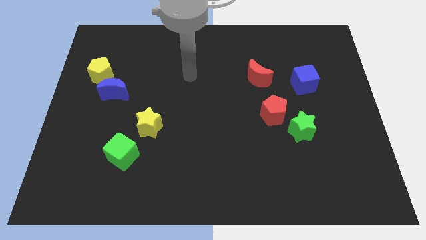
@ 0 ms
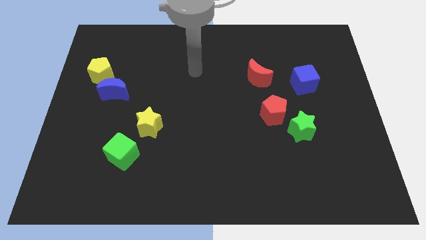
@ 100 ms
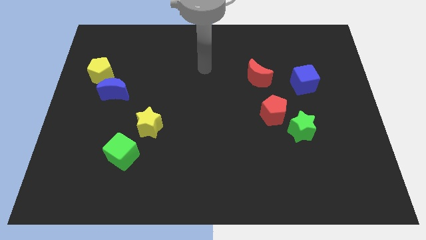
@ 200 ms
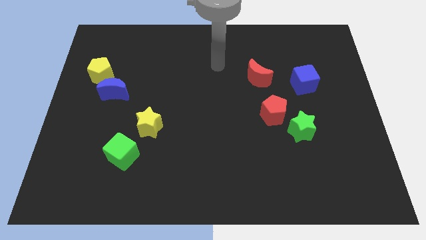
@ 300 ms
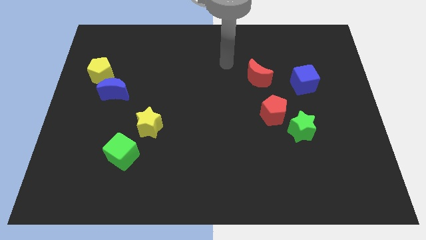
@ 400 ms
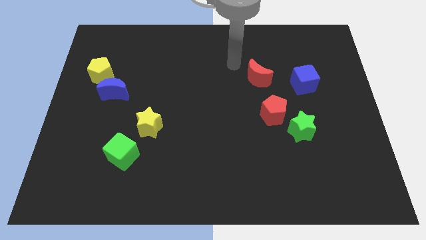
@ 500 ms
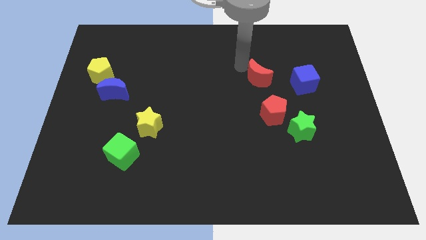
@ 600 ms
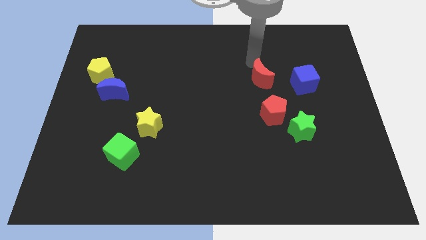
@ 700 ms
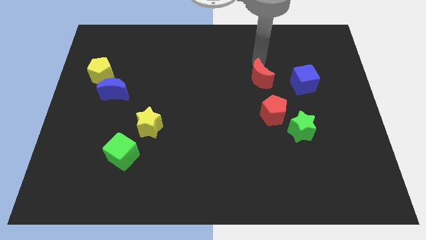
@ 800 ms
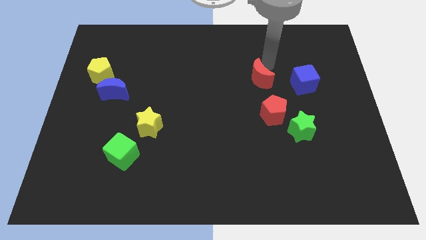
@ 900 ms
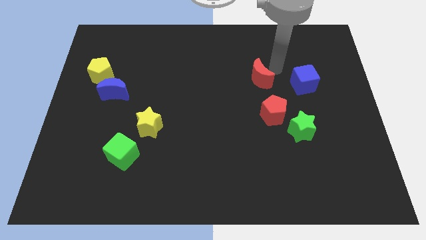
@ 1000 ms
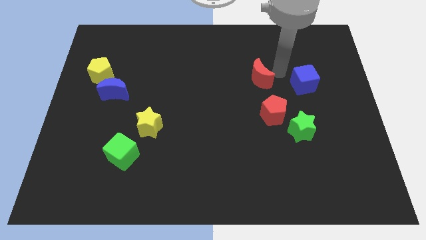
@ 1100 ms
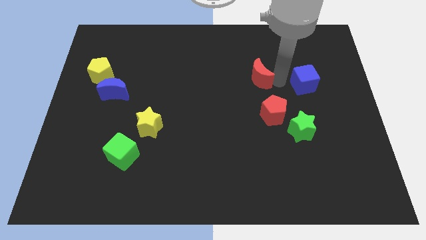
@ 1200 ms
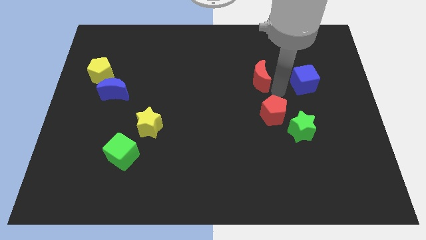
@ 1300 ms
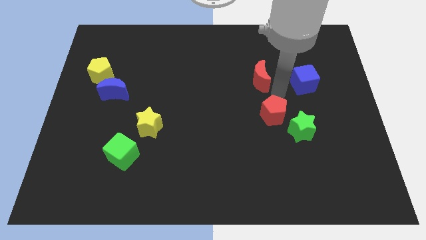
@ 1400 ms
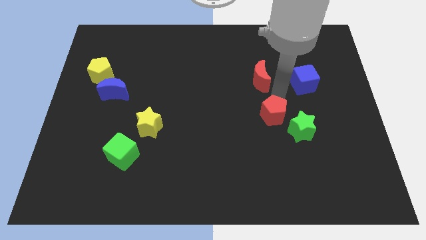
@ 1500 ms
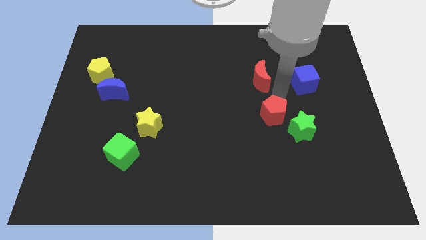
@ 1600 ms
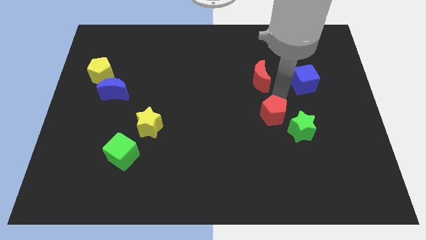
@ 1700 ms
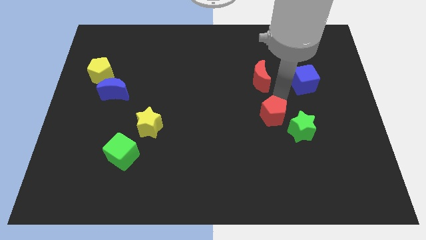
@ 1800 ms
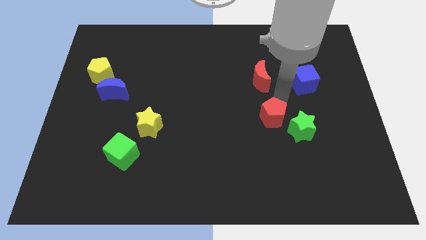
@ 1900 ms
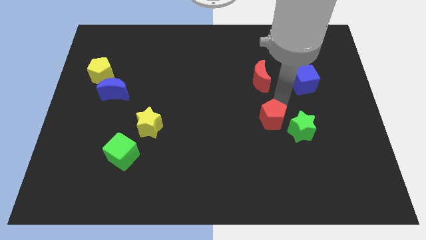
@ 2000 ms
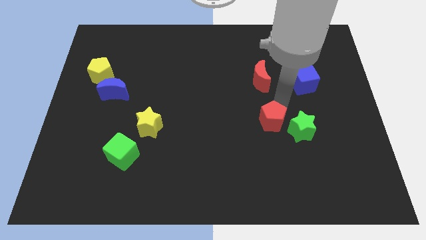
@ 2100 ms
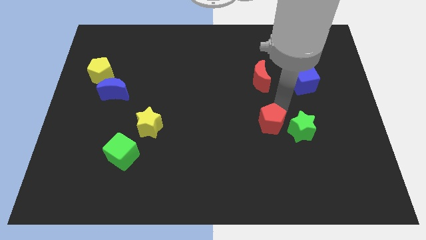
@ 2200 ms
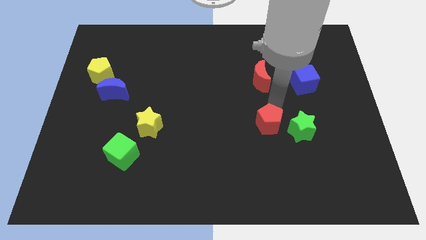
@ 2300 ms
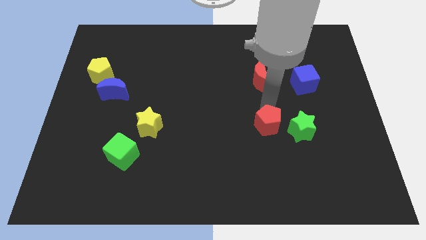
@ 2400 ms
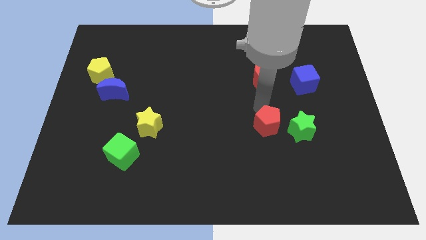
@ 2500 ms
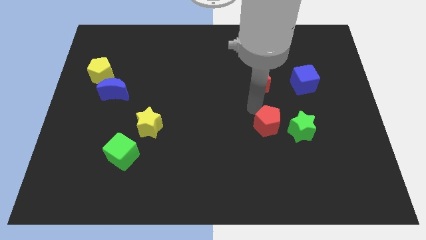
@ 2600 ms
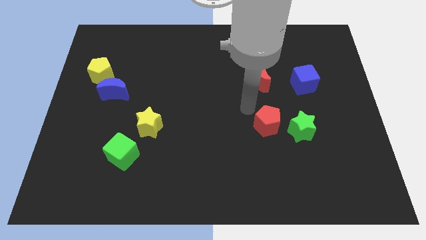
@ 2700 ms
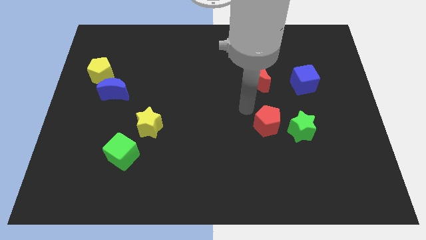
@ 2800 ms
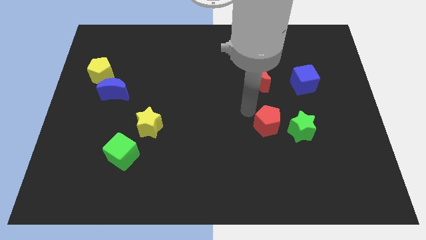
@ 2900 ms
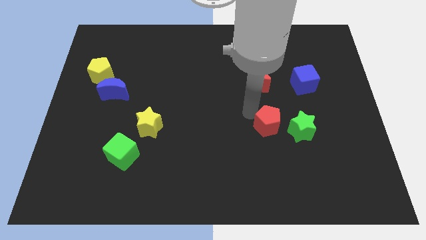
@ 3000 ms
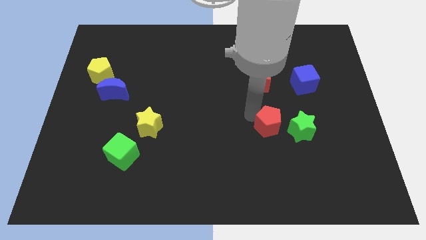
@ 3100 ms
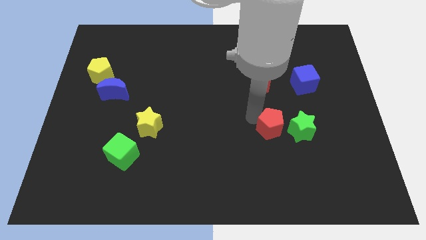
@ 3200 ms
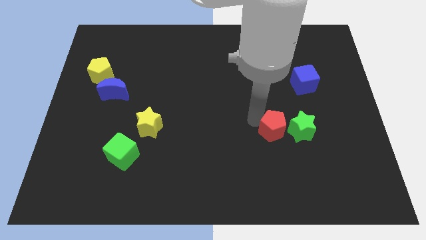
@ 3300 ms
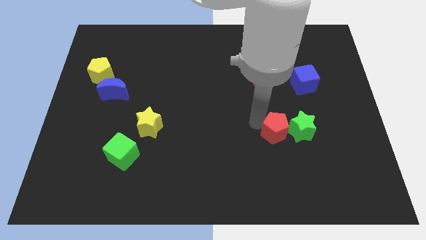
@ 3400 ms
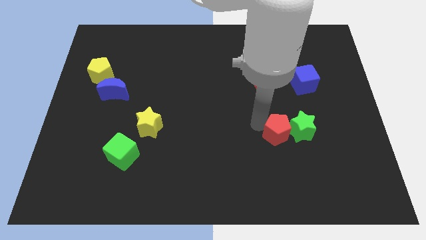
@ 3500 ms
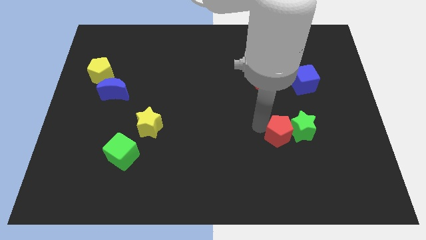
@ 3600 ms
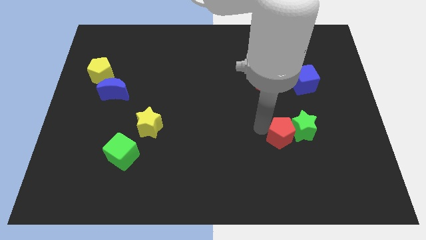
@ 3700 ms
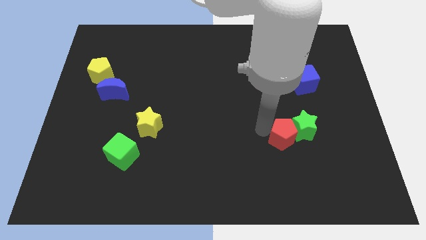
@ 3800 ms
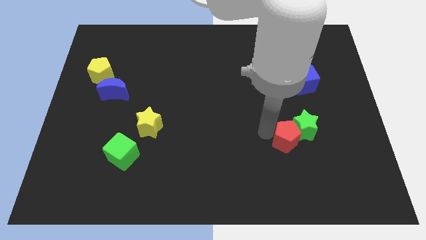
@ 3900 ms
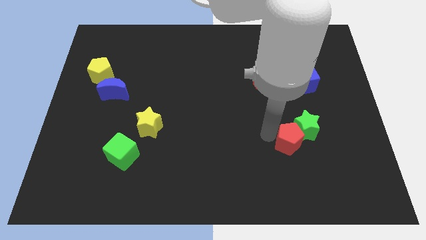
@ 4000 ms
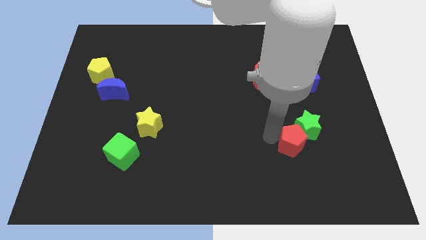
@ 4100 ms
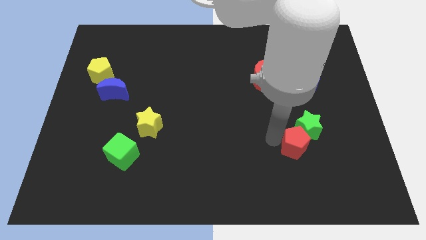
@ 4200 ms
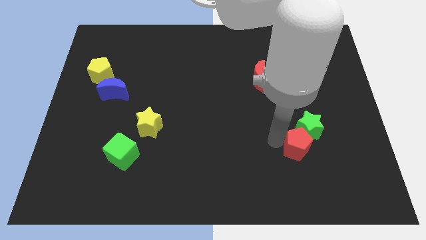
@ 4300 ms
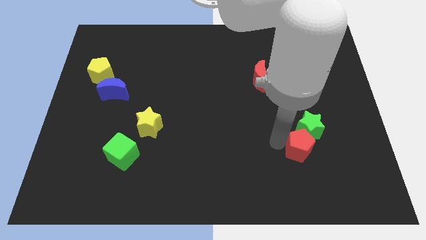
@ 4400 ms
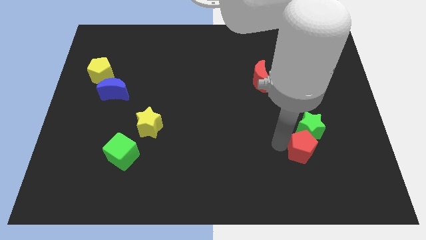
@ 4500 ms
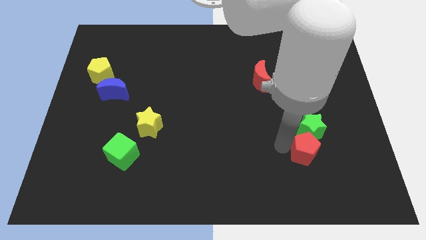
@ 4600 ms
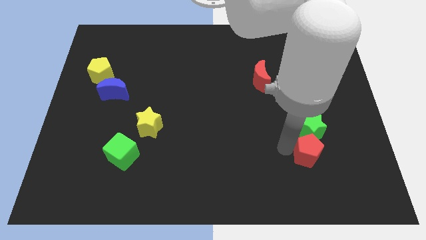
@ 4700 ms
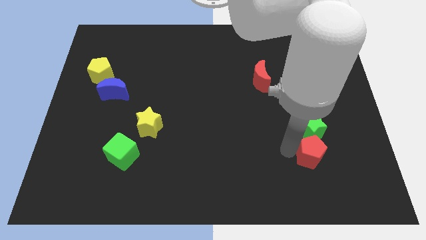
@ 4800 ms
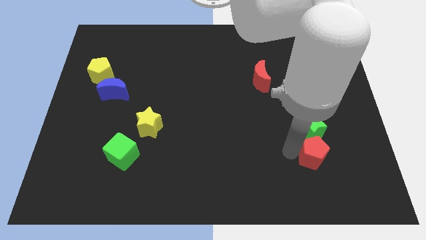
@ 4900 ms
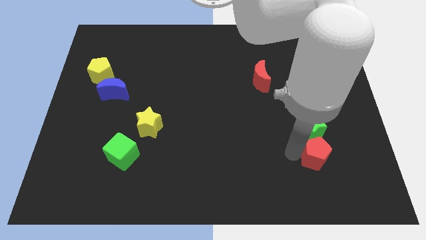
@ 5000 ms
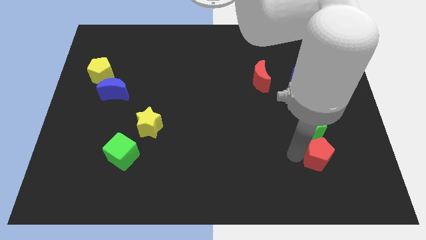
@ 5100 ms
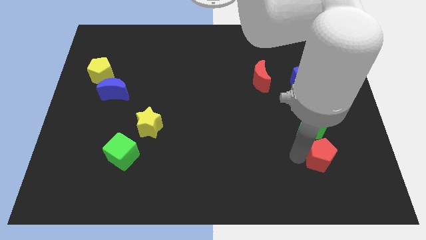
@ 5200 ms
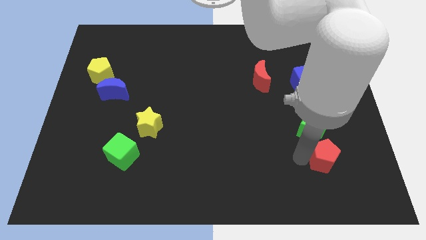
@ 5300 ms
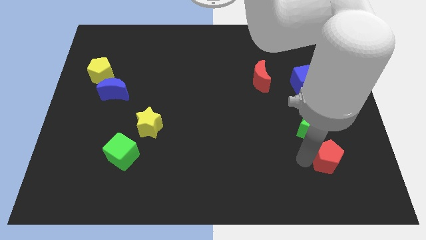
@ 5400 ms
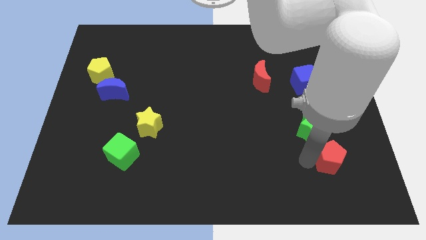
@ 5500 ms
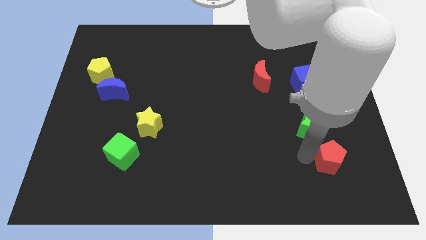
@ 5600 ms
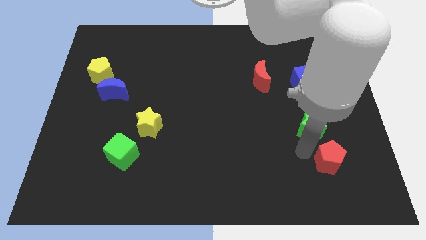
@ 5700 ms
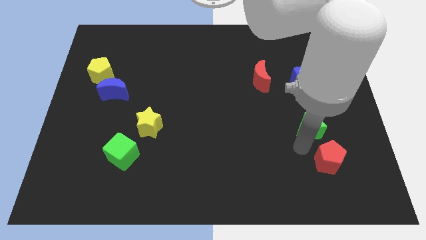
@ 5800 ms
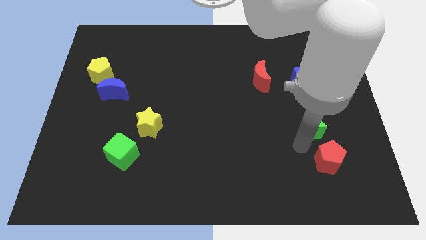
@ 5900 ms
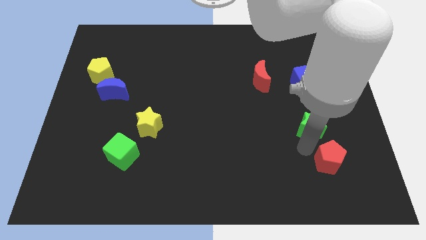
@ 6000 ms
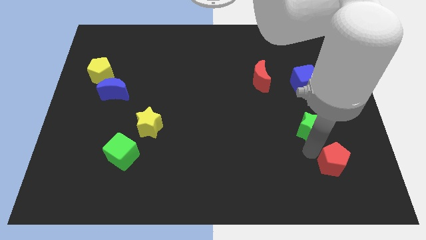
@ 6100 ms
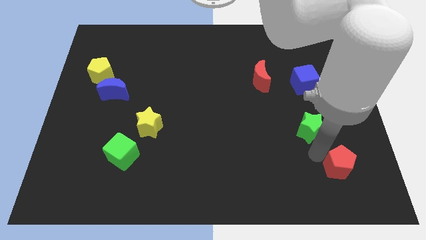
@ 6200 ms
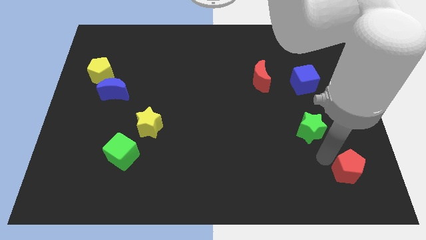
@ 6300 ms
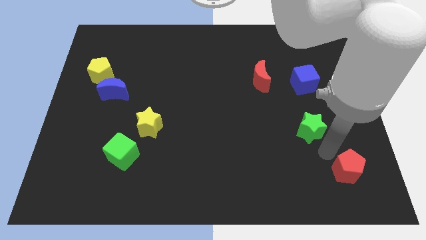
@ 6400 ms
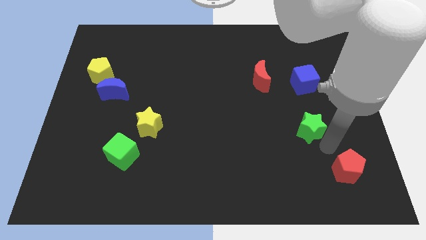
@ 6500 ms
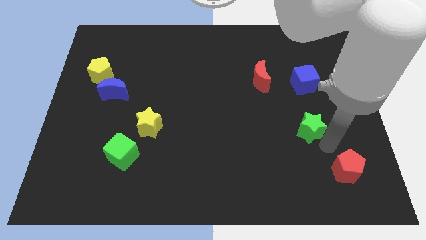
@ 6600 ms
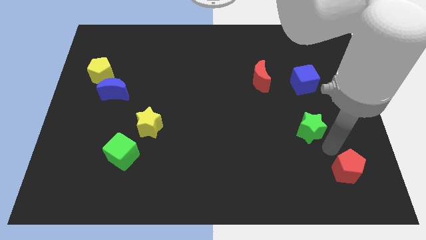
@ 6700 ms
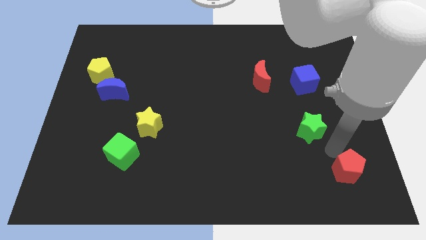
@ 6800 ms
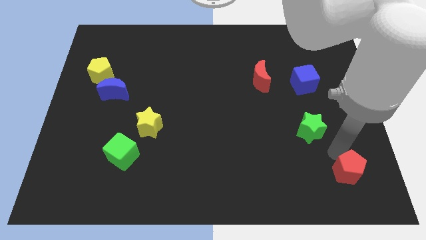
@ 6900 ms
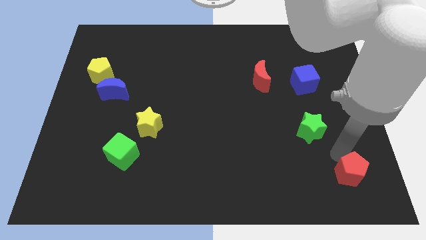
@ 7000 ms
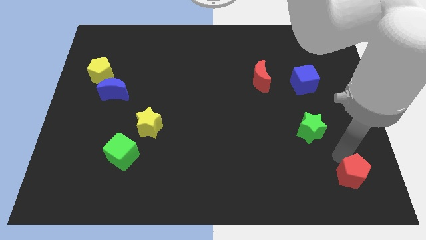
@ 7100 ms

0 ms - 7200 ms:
slide the red pentagon to the bottom right of the board

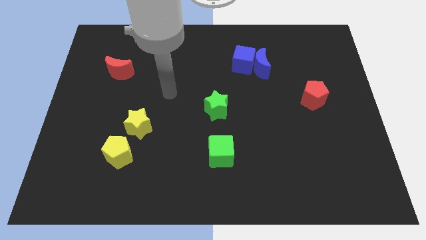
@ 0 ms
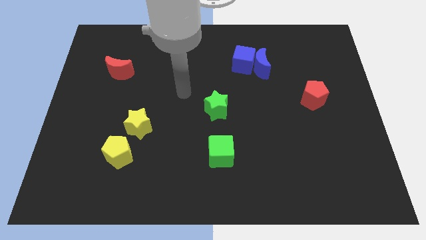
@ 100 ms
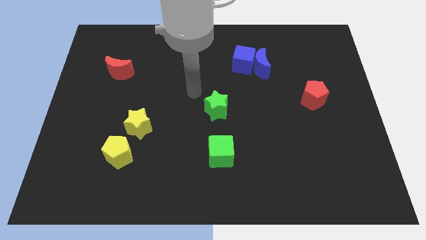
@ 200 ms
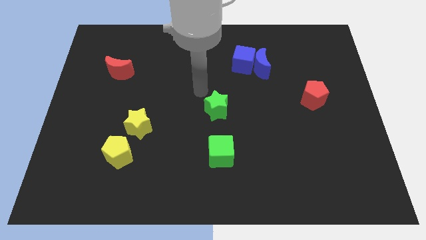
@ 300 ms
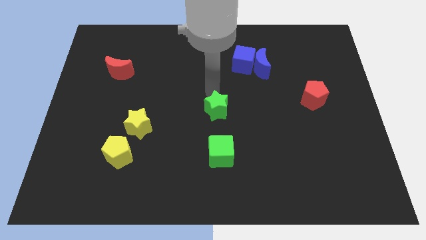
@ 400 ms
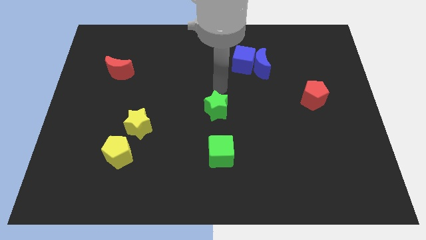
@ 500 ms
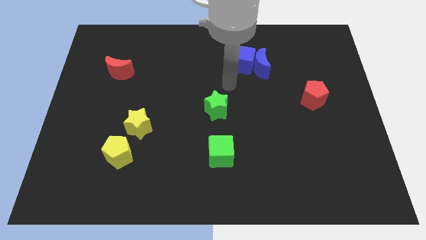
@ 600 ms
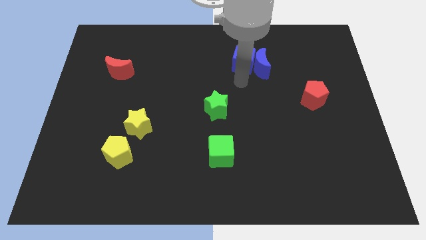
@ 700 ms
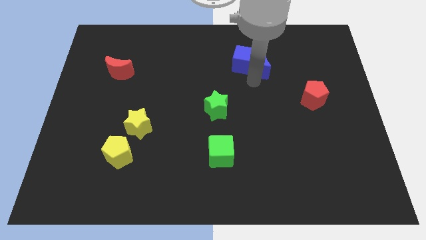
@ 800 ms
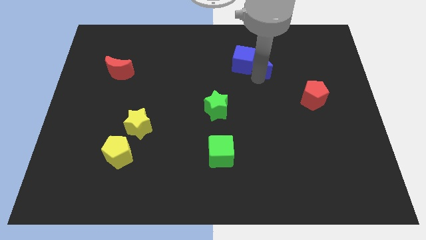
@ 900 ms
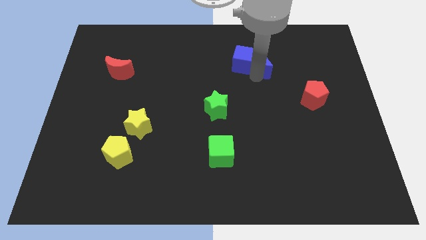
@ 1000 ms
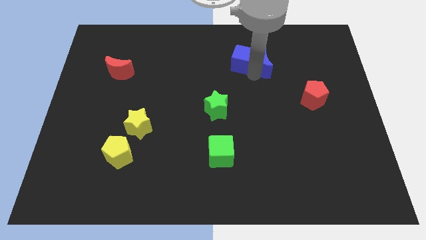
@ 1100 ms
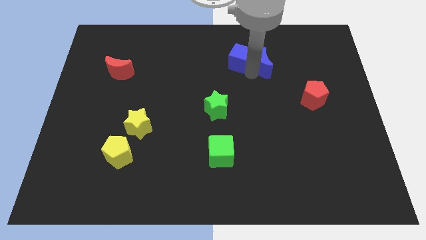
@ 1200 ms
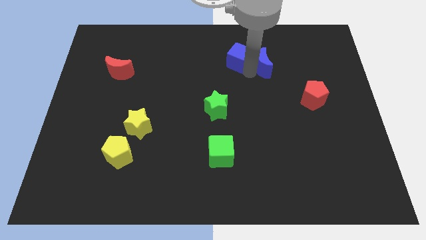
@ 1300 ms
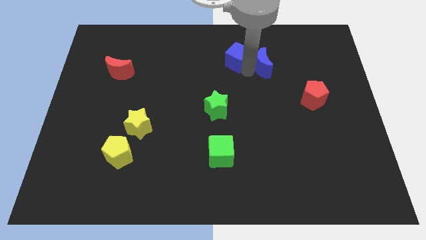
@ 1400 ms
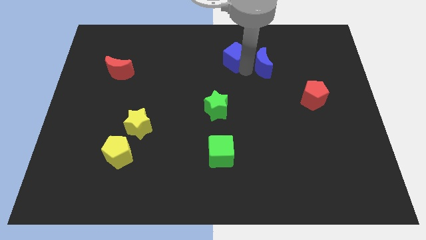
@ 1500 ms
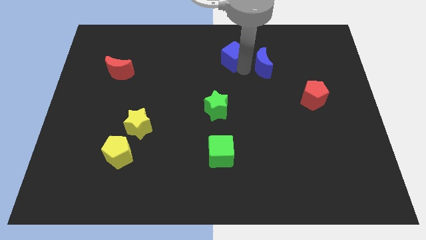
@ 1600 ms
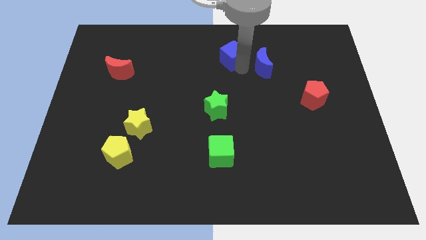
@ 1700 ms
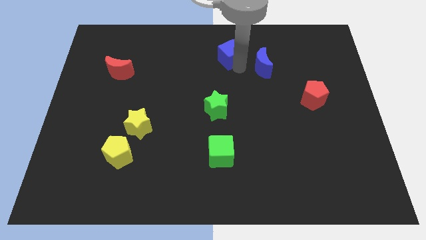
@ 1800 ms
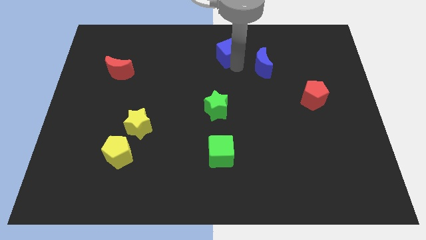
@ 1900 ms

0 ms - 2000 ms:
put the blue cube to the towards your base
